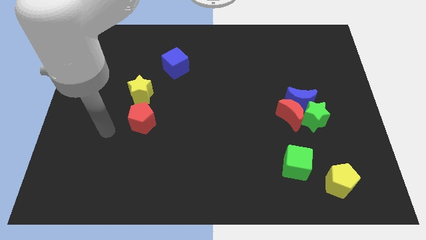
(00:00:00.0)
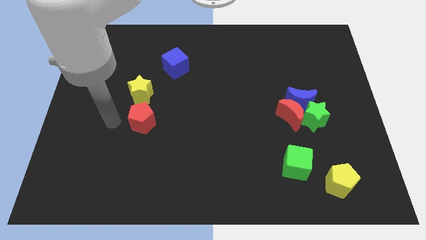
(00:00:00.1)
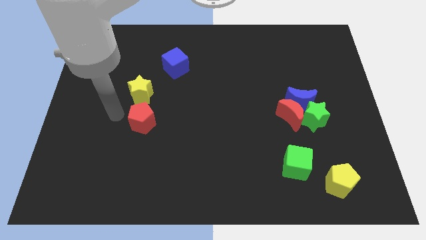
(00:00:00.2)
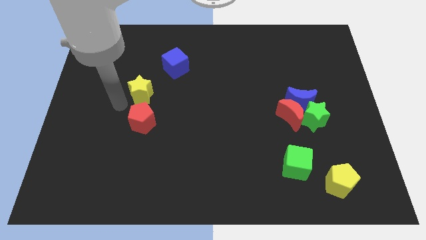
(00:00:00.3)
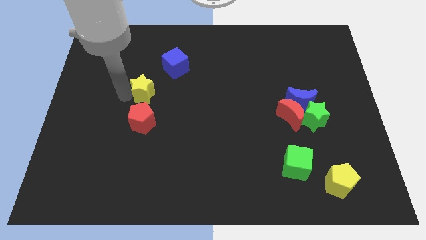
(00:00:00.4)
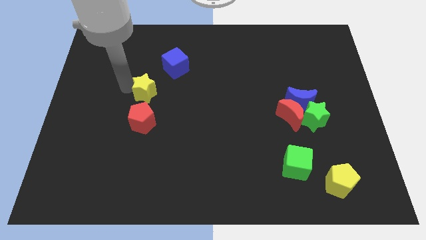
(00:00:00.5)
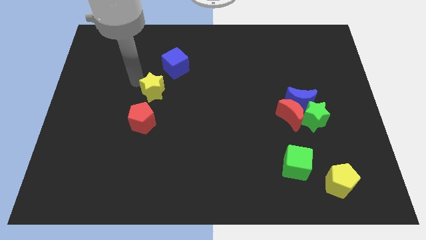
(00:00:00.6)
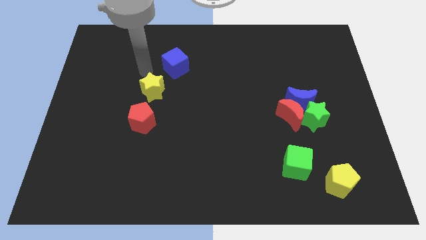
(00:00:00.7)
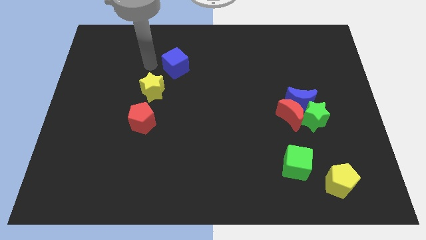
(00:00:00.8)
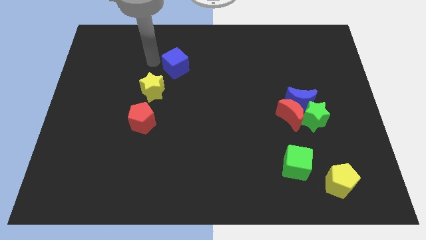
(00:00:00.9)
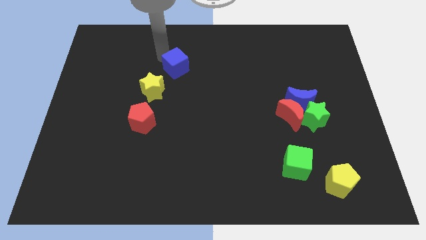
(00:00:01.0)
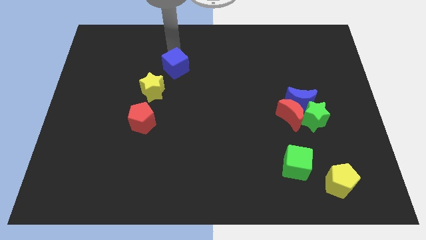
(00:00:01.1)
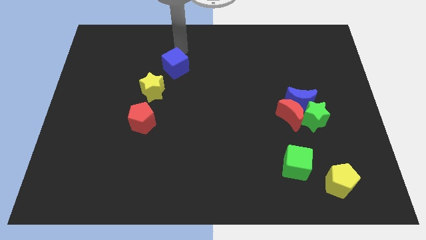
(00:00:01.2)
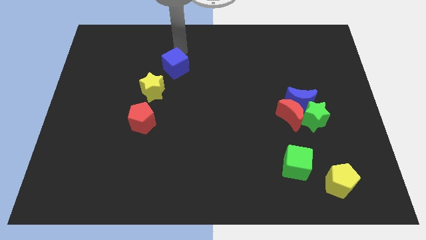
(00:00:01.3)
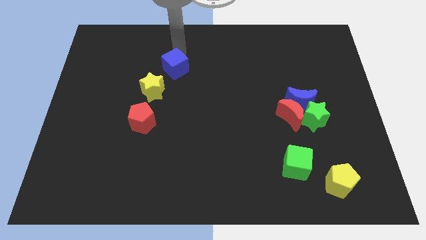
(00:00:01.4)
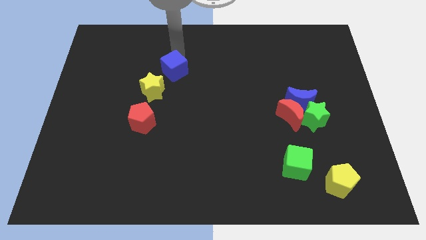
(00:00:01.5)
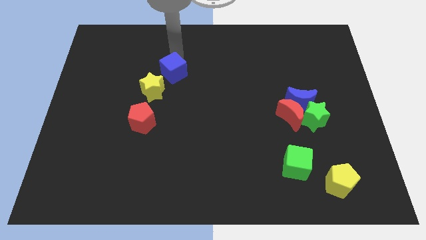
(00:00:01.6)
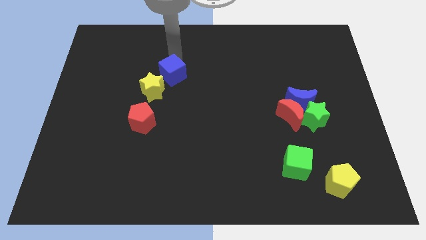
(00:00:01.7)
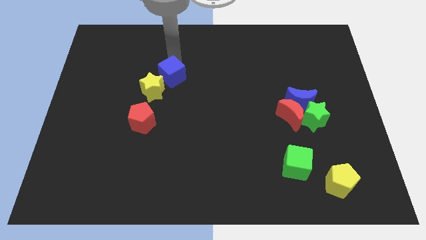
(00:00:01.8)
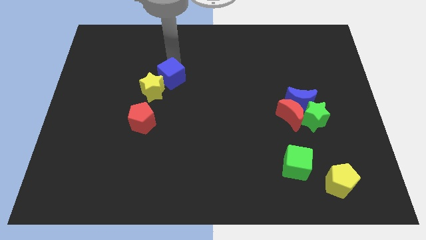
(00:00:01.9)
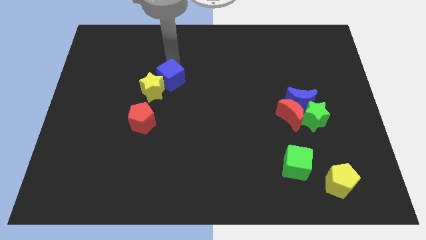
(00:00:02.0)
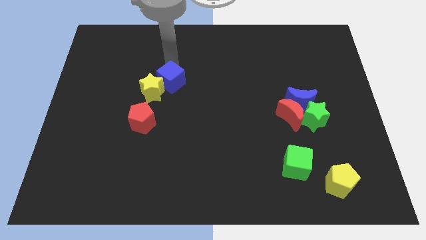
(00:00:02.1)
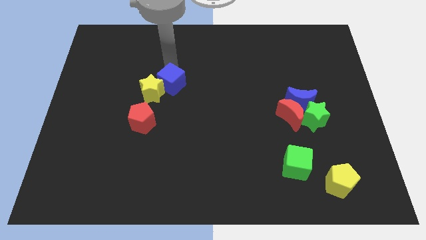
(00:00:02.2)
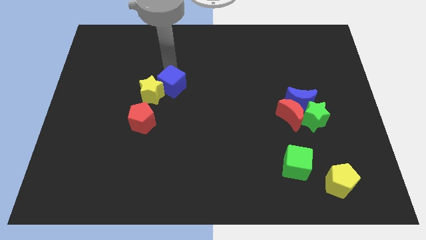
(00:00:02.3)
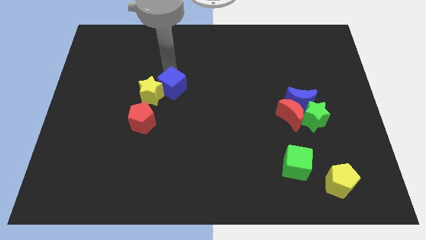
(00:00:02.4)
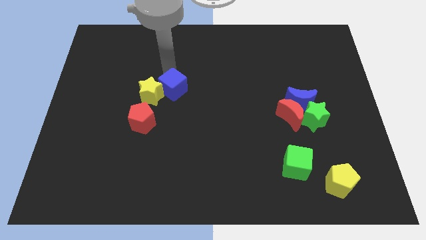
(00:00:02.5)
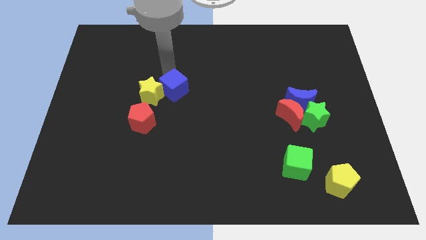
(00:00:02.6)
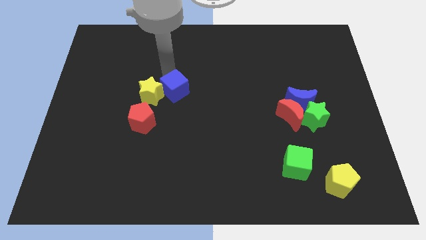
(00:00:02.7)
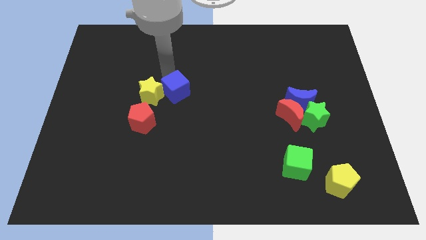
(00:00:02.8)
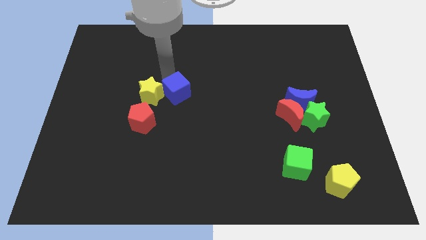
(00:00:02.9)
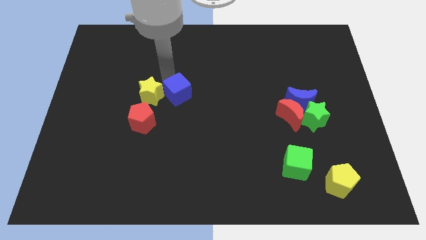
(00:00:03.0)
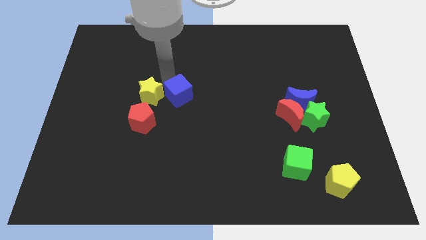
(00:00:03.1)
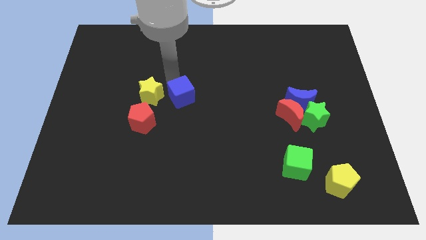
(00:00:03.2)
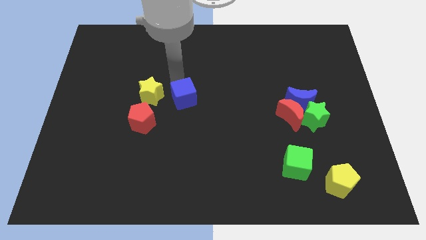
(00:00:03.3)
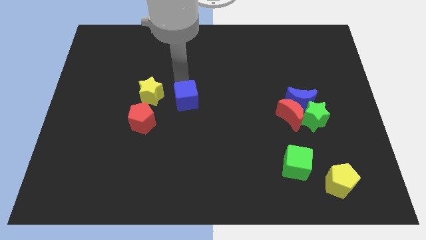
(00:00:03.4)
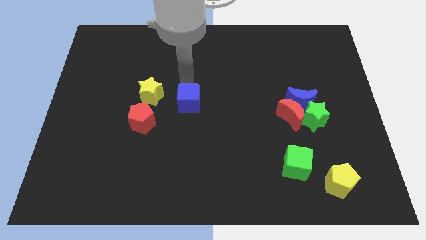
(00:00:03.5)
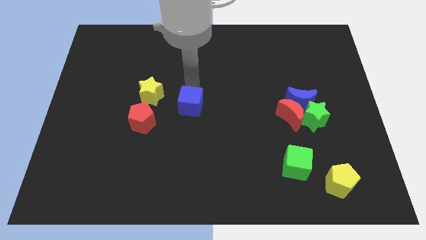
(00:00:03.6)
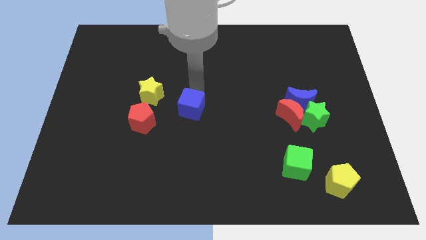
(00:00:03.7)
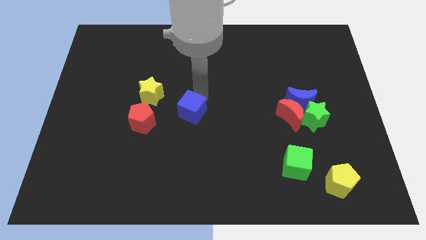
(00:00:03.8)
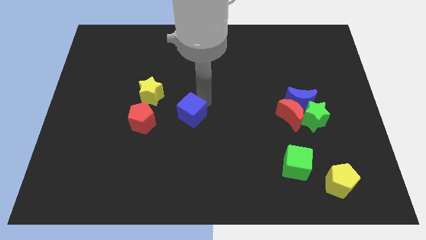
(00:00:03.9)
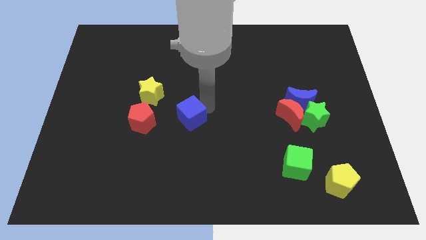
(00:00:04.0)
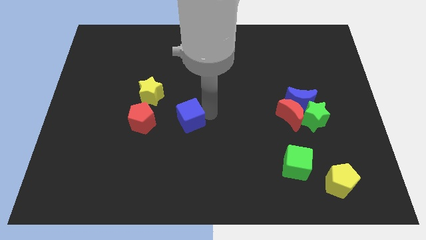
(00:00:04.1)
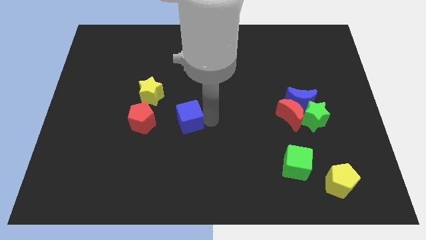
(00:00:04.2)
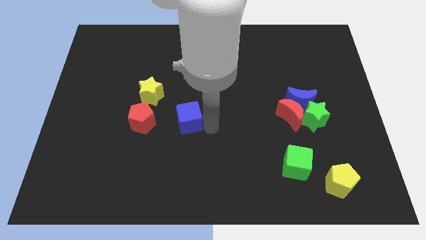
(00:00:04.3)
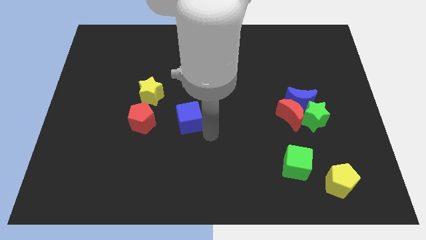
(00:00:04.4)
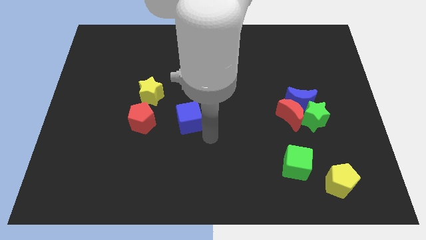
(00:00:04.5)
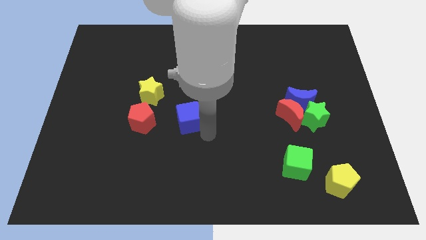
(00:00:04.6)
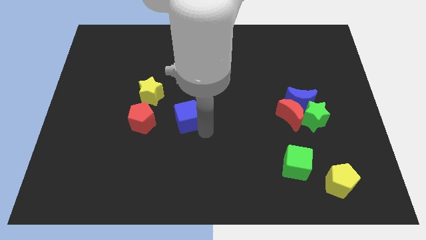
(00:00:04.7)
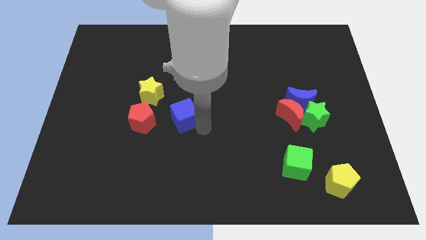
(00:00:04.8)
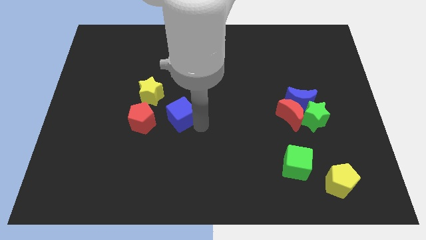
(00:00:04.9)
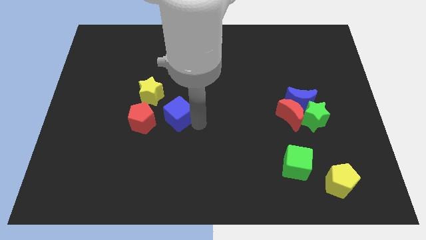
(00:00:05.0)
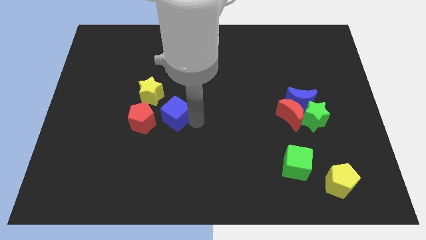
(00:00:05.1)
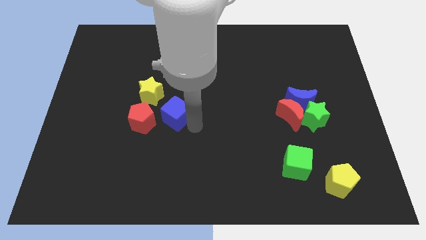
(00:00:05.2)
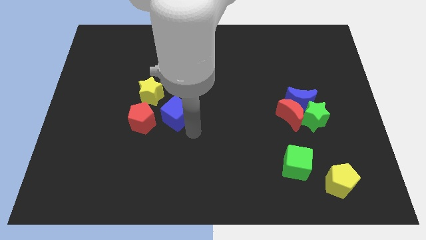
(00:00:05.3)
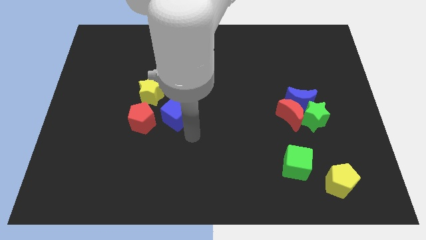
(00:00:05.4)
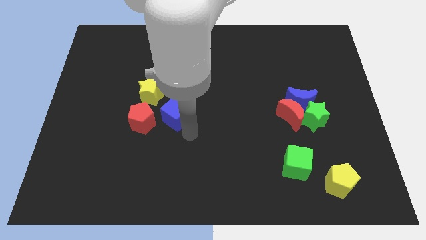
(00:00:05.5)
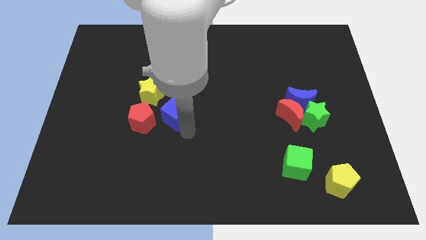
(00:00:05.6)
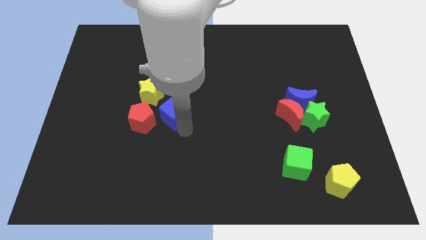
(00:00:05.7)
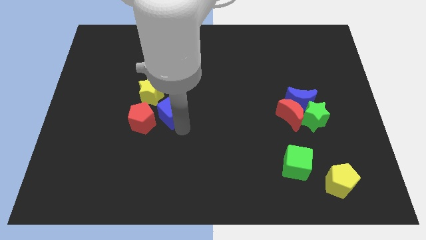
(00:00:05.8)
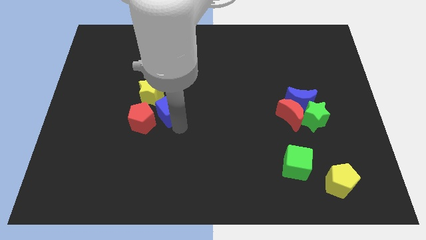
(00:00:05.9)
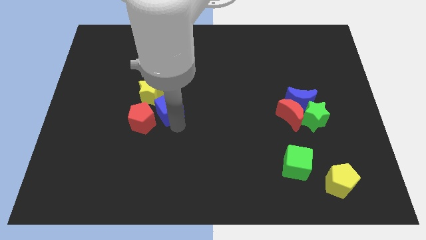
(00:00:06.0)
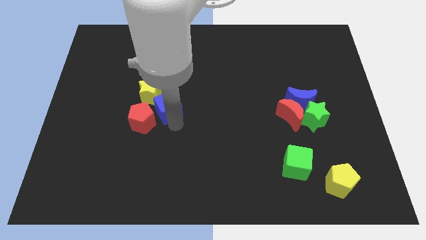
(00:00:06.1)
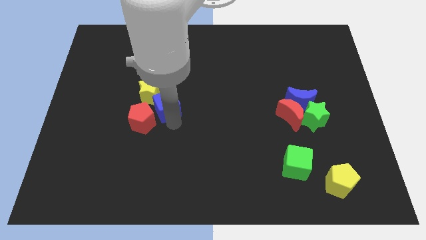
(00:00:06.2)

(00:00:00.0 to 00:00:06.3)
put the blue cube next to the red pentagon

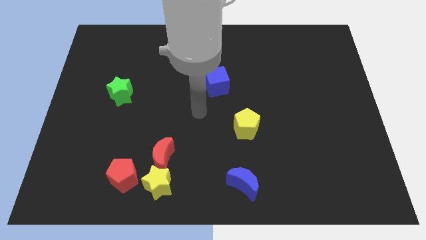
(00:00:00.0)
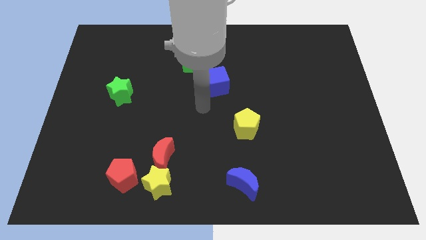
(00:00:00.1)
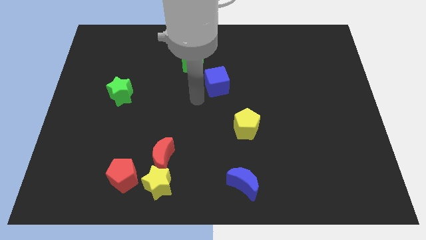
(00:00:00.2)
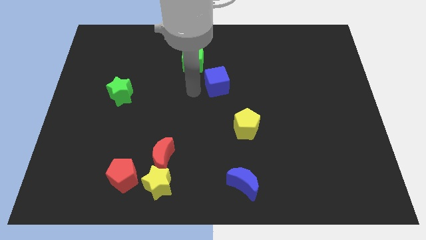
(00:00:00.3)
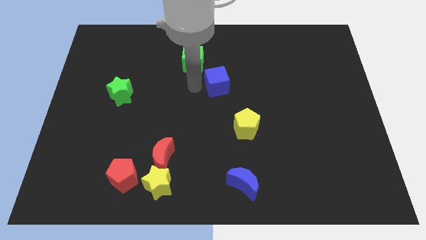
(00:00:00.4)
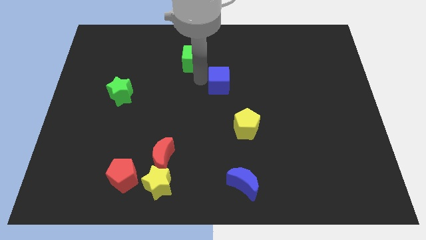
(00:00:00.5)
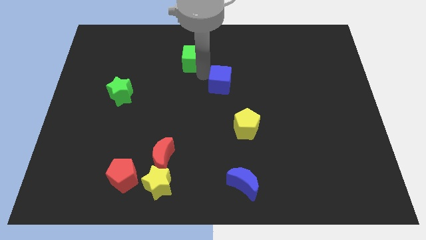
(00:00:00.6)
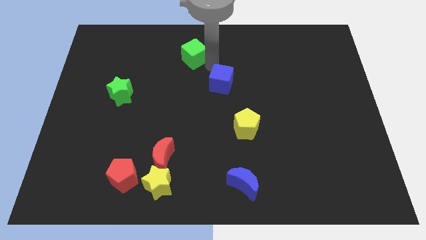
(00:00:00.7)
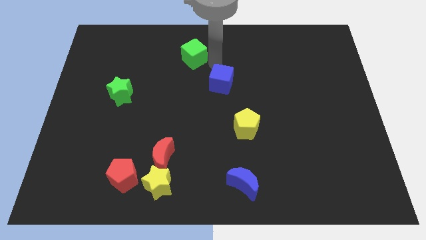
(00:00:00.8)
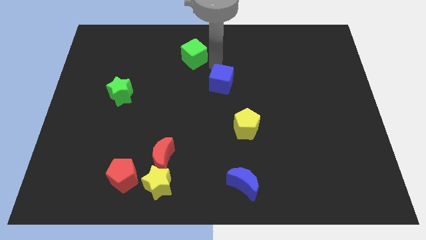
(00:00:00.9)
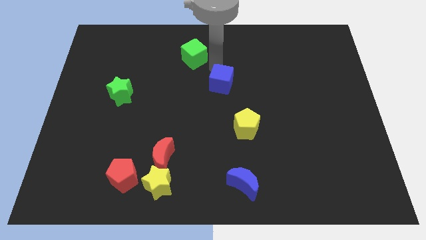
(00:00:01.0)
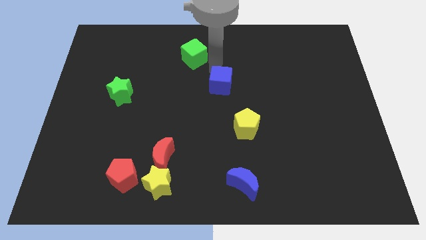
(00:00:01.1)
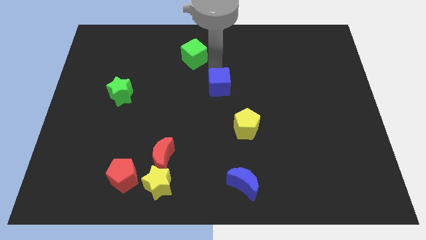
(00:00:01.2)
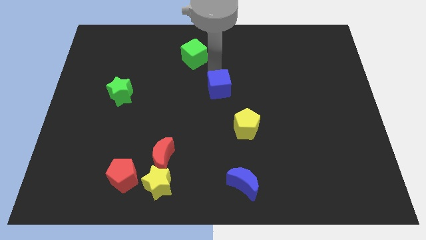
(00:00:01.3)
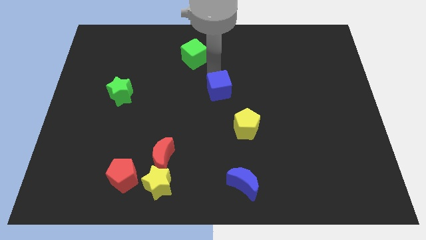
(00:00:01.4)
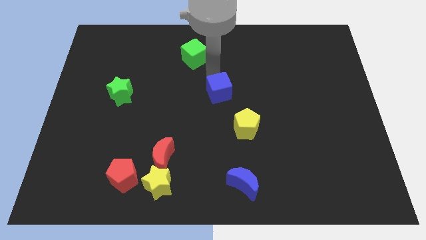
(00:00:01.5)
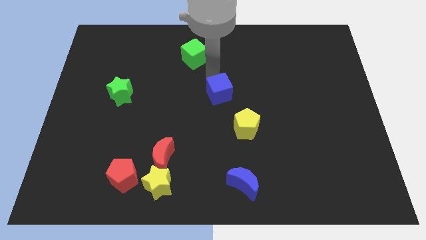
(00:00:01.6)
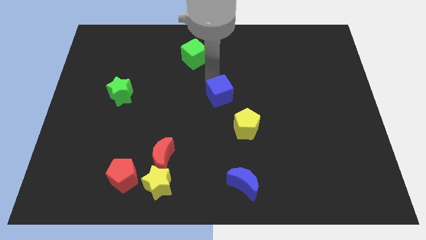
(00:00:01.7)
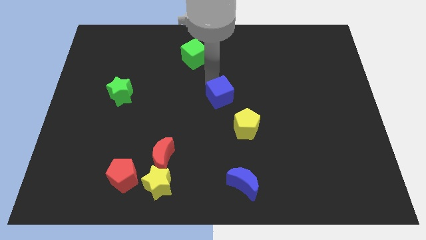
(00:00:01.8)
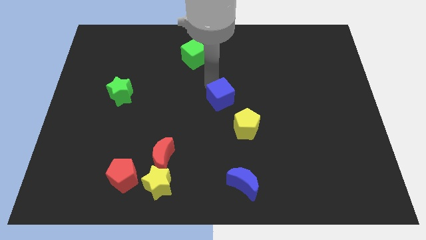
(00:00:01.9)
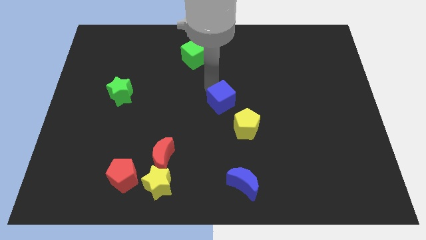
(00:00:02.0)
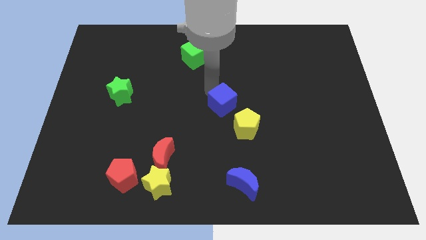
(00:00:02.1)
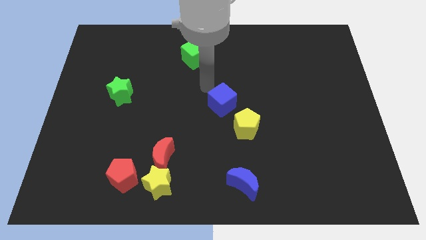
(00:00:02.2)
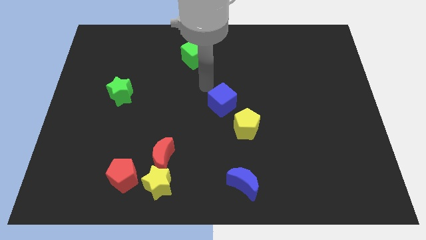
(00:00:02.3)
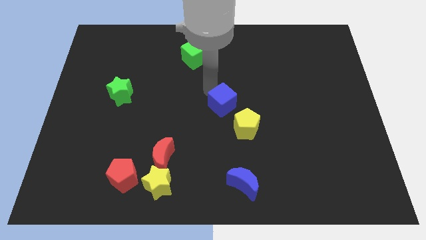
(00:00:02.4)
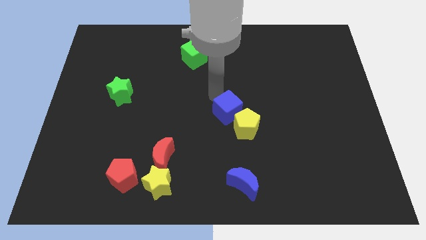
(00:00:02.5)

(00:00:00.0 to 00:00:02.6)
move the blue cube next to the yellow pentagon
